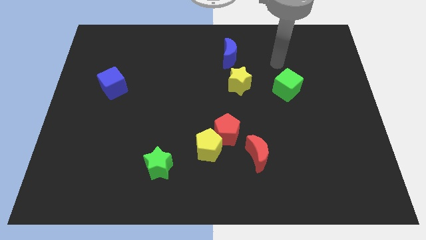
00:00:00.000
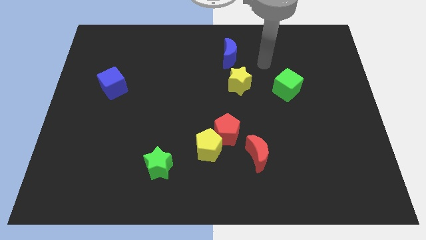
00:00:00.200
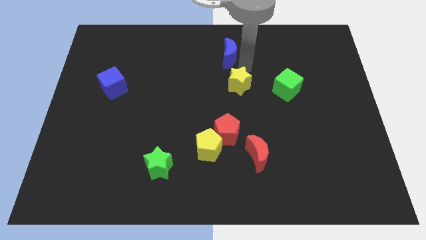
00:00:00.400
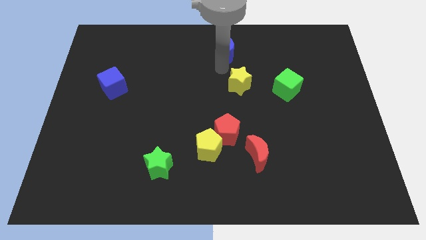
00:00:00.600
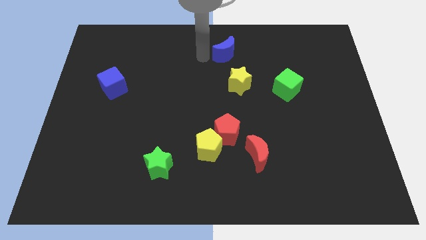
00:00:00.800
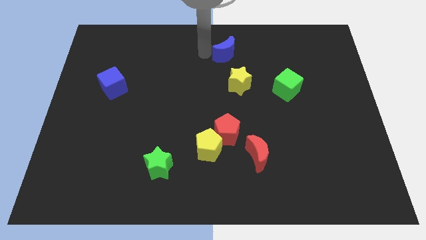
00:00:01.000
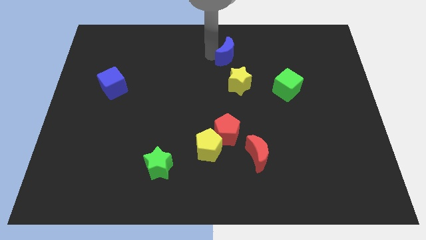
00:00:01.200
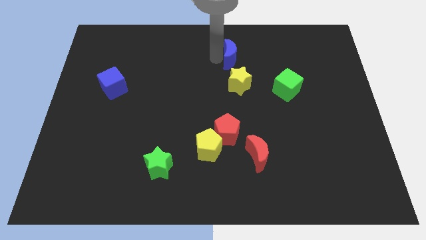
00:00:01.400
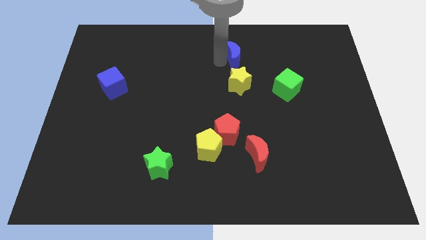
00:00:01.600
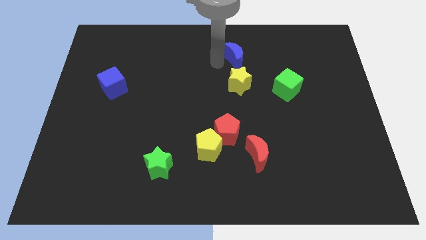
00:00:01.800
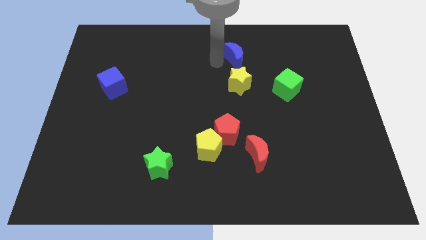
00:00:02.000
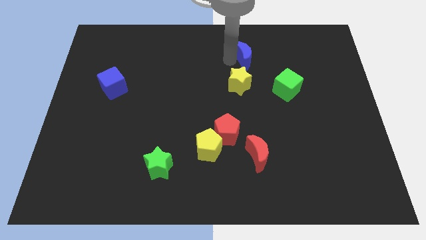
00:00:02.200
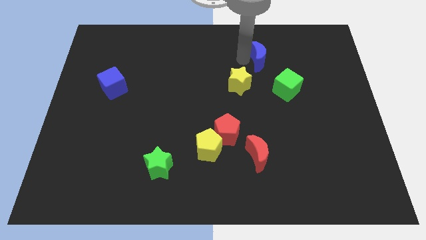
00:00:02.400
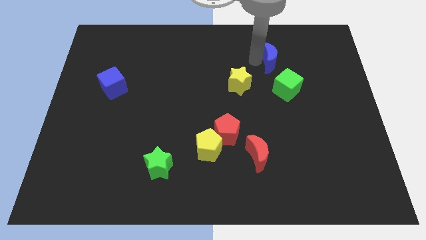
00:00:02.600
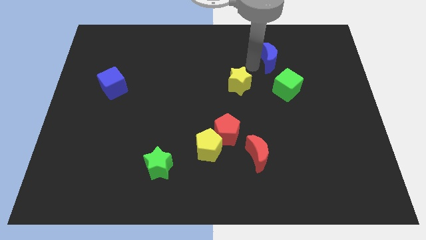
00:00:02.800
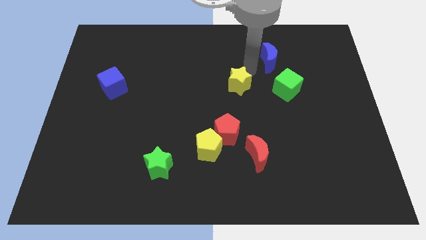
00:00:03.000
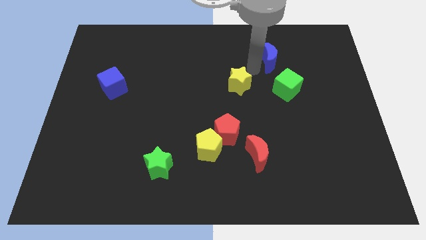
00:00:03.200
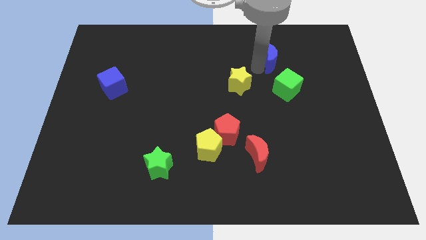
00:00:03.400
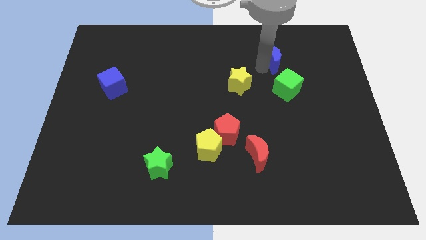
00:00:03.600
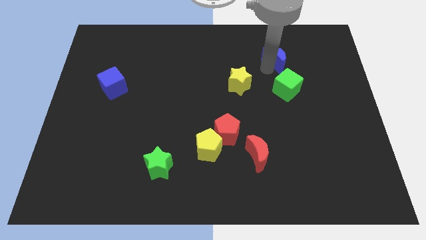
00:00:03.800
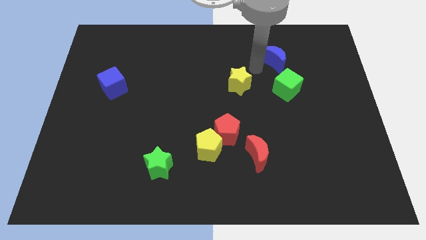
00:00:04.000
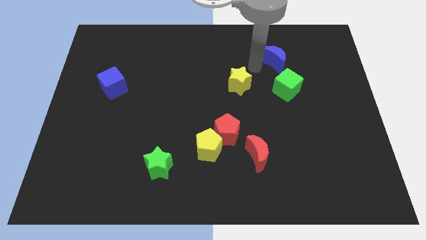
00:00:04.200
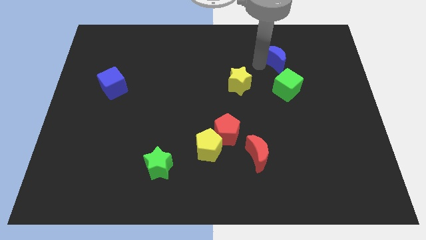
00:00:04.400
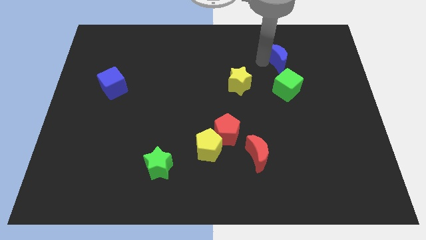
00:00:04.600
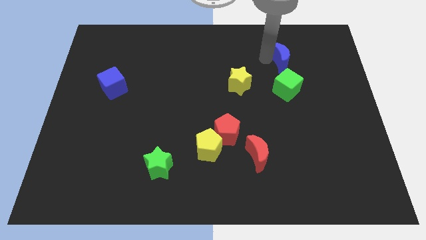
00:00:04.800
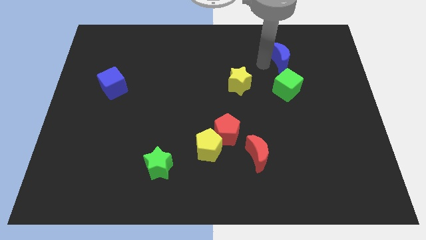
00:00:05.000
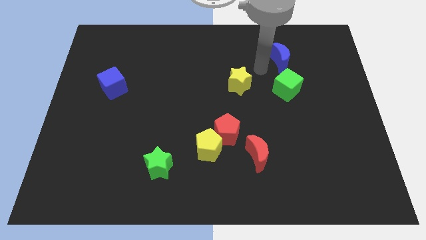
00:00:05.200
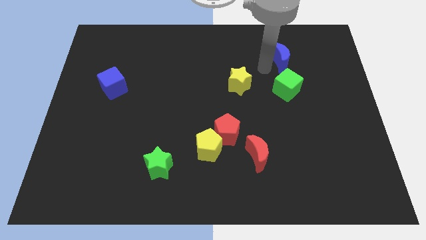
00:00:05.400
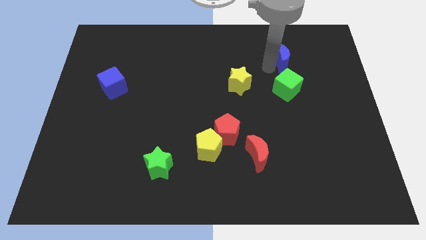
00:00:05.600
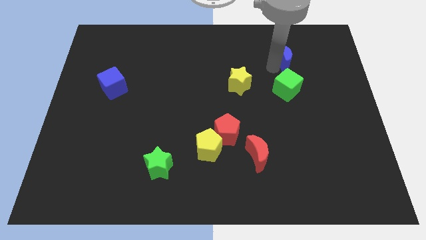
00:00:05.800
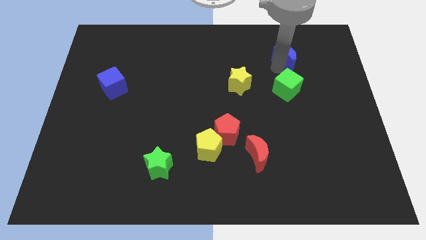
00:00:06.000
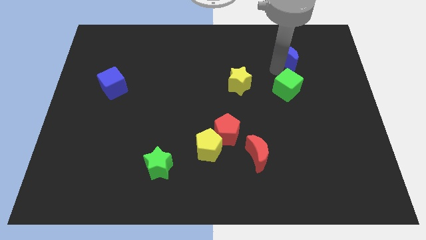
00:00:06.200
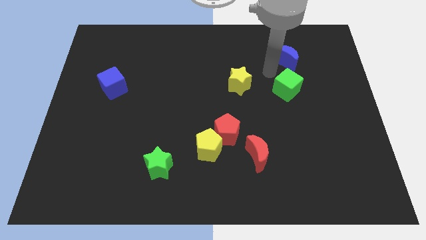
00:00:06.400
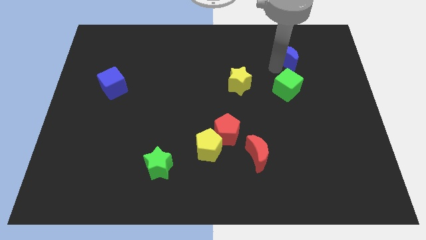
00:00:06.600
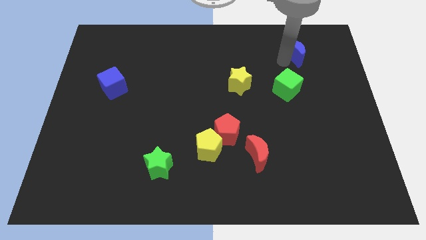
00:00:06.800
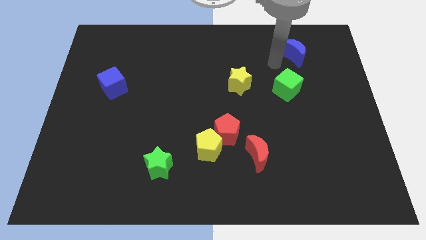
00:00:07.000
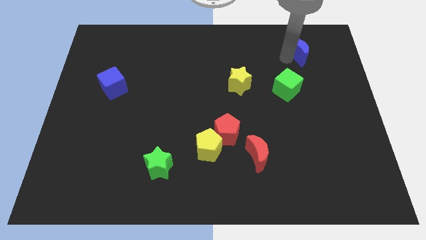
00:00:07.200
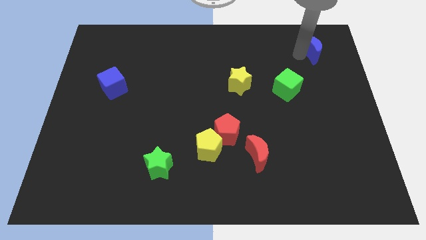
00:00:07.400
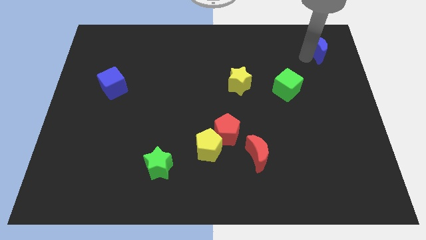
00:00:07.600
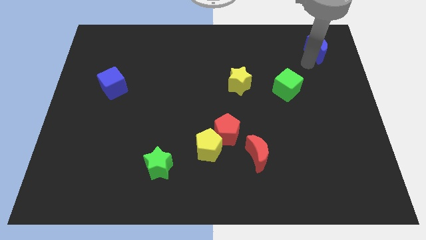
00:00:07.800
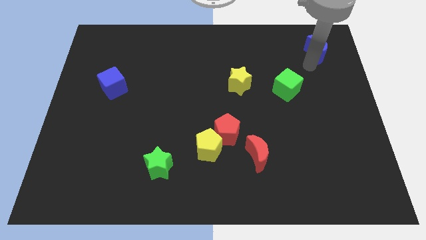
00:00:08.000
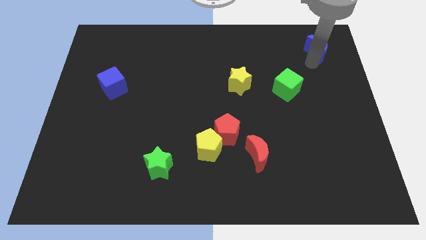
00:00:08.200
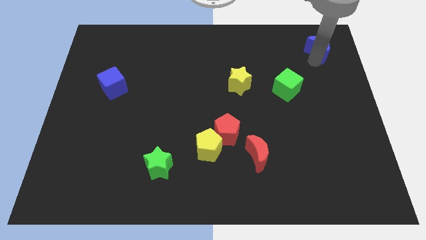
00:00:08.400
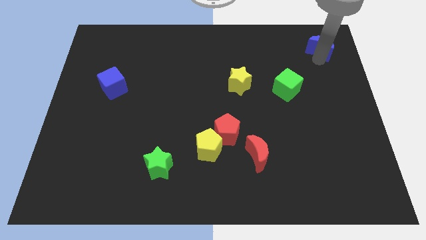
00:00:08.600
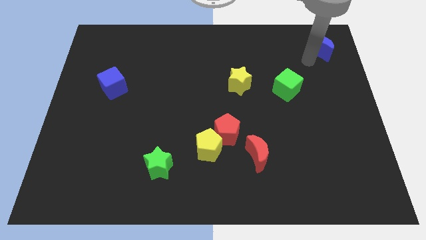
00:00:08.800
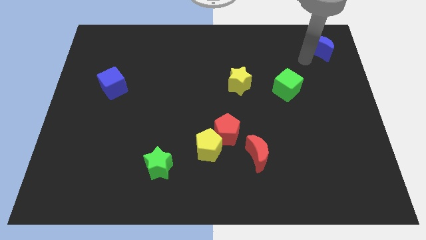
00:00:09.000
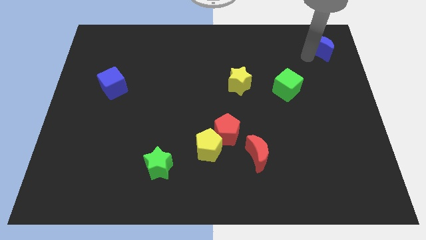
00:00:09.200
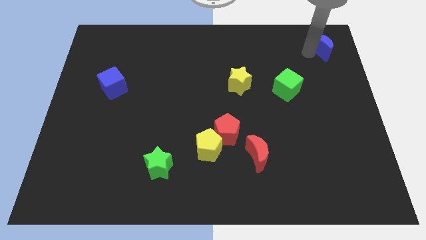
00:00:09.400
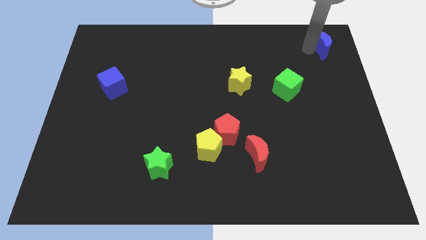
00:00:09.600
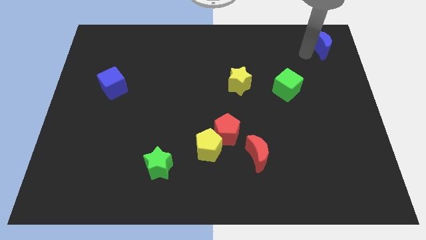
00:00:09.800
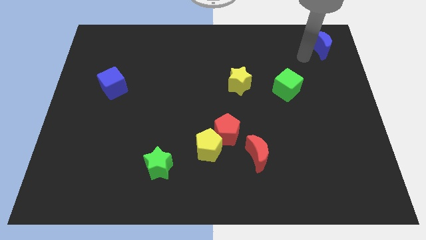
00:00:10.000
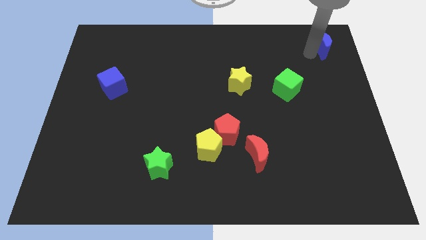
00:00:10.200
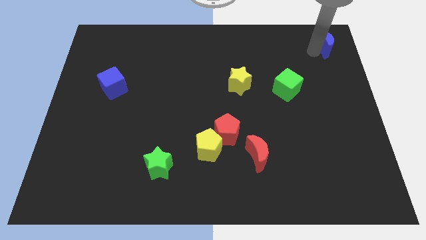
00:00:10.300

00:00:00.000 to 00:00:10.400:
slide the blue moon to the top right
